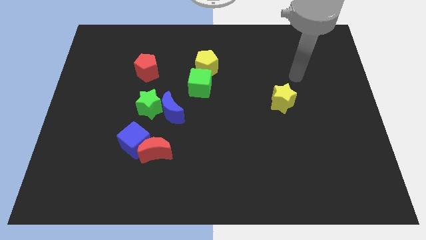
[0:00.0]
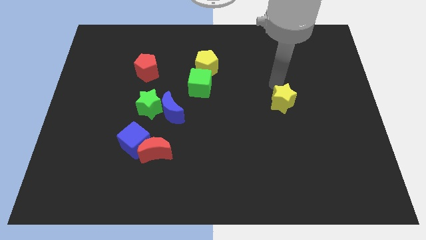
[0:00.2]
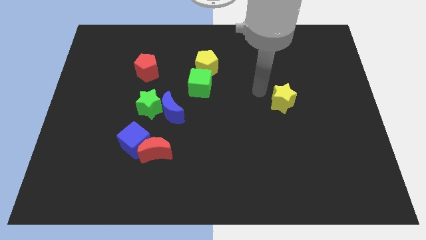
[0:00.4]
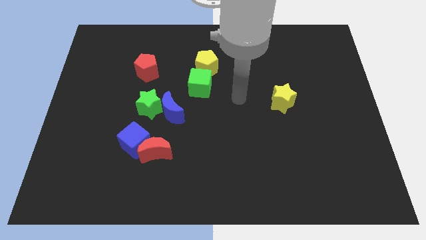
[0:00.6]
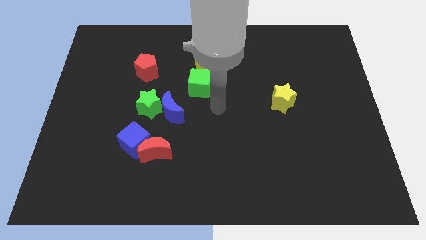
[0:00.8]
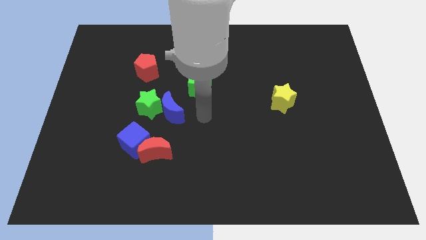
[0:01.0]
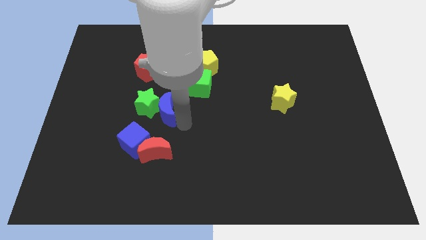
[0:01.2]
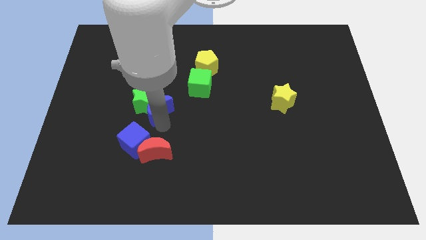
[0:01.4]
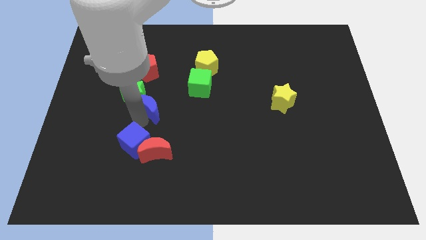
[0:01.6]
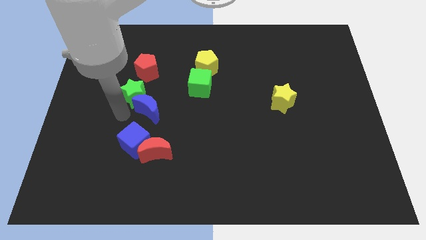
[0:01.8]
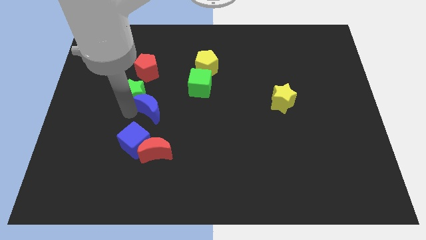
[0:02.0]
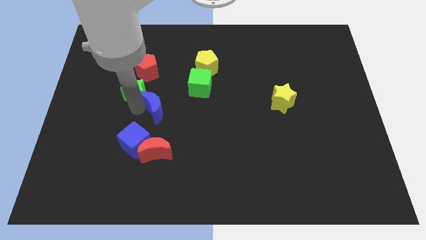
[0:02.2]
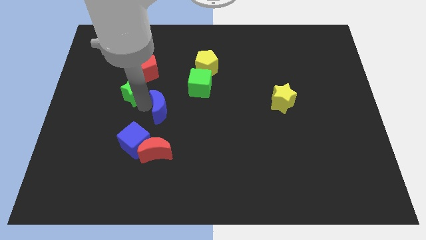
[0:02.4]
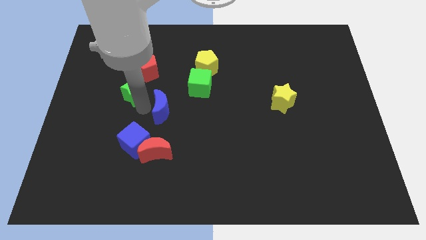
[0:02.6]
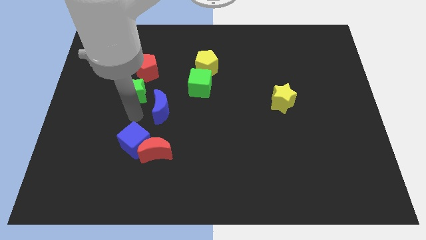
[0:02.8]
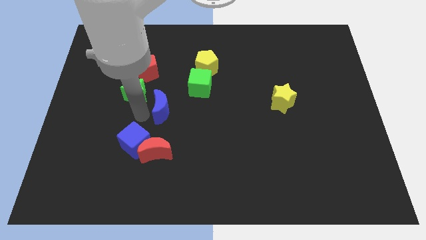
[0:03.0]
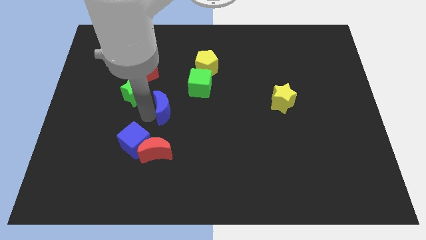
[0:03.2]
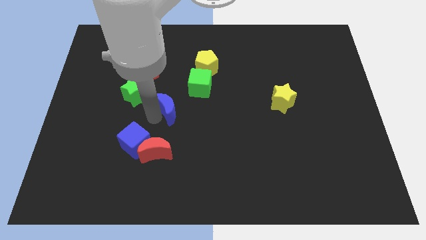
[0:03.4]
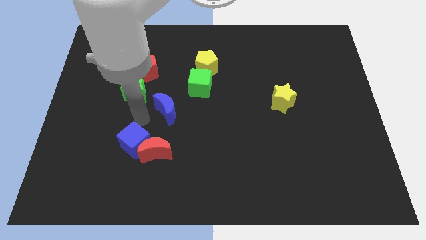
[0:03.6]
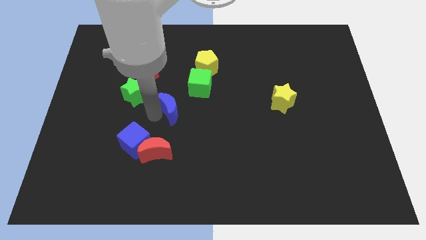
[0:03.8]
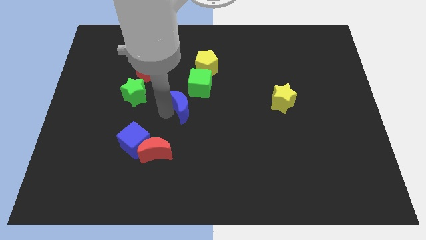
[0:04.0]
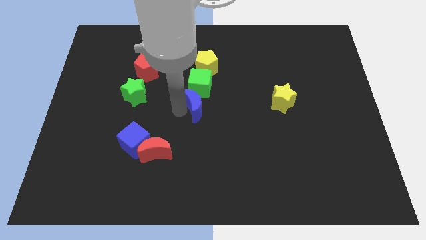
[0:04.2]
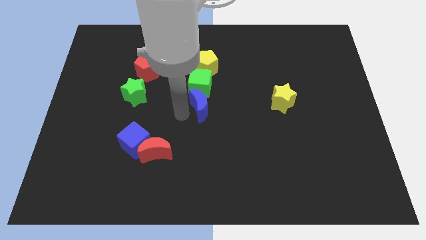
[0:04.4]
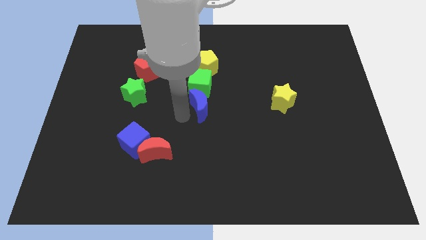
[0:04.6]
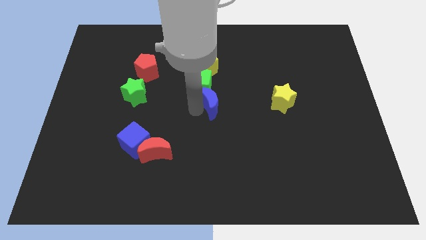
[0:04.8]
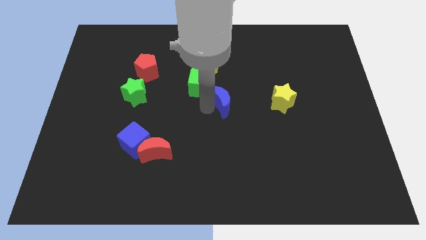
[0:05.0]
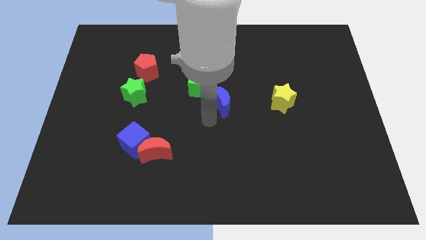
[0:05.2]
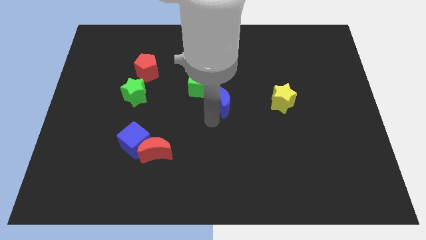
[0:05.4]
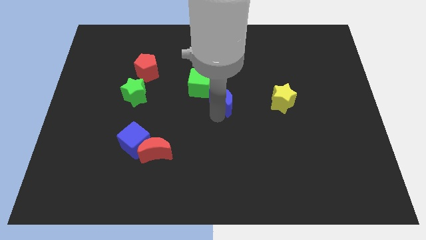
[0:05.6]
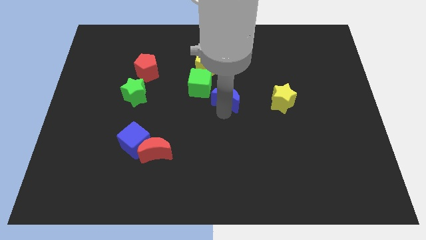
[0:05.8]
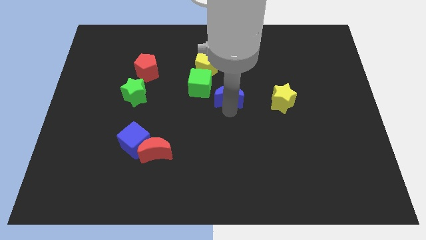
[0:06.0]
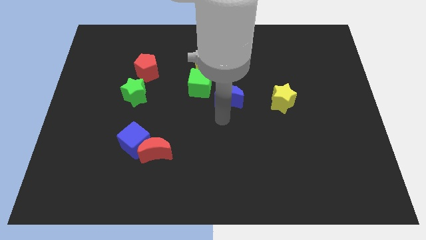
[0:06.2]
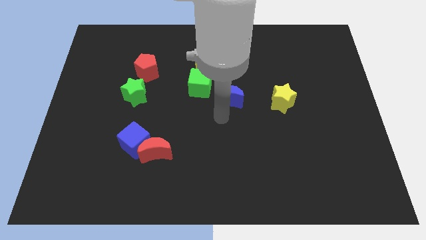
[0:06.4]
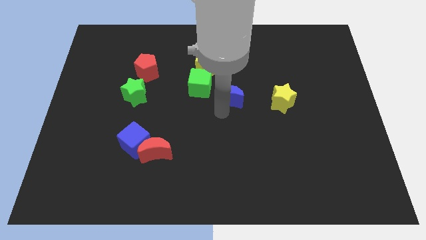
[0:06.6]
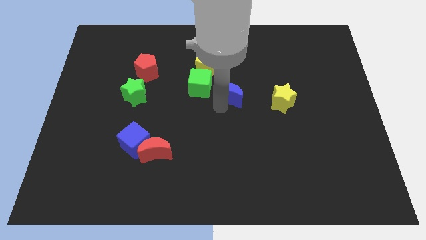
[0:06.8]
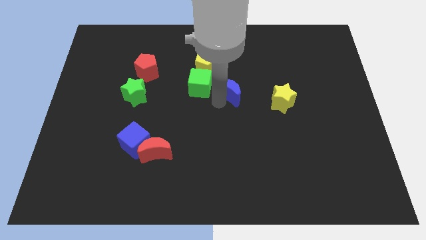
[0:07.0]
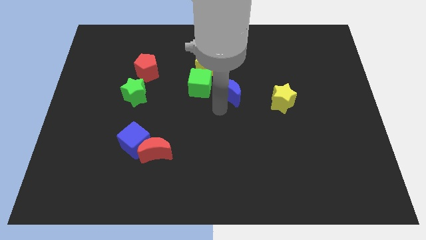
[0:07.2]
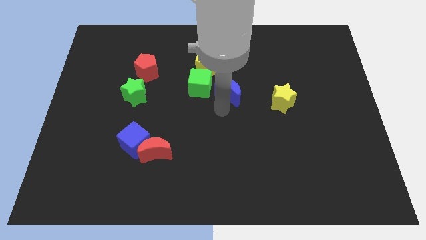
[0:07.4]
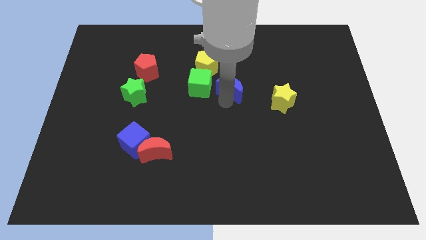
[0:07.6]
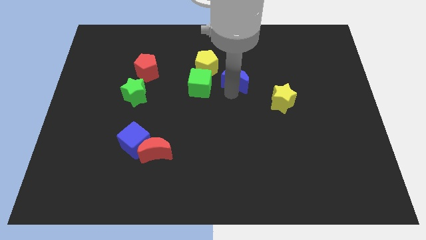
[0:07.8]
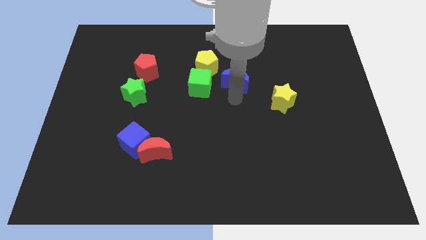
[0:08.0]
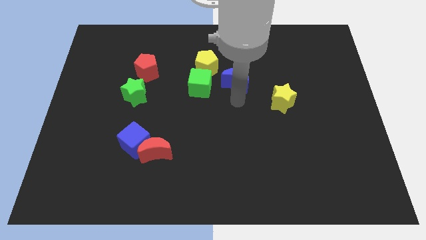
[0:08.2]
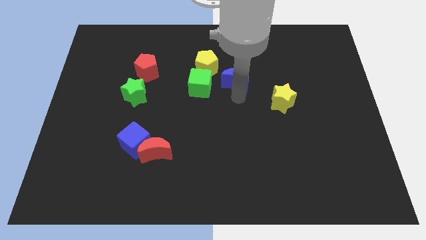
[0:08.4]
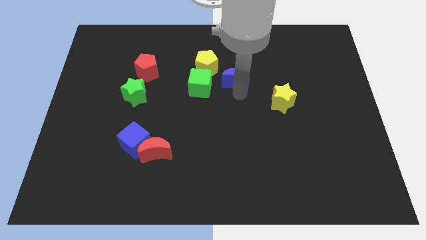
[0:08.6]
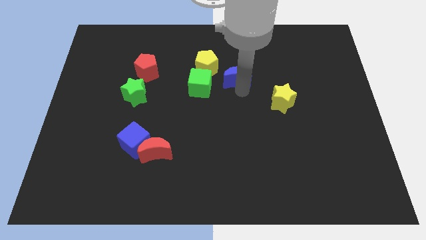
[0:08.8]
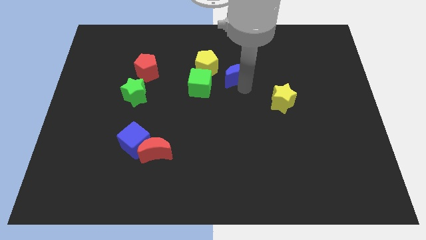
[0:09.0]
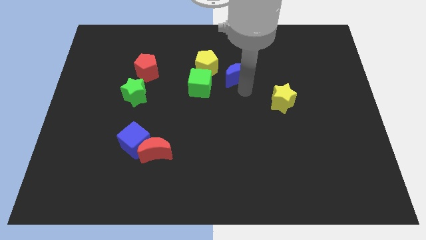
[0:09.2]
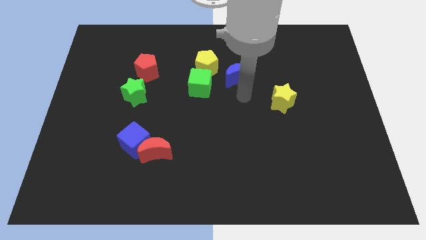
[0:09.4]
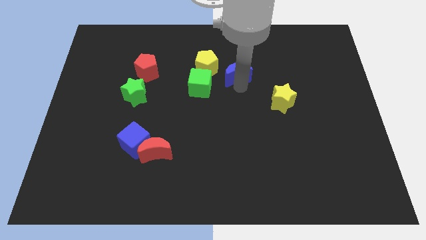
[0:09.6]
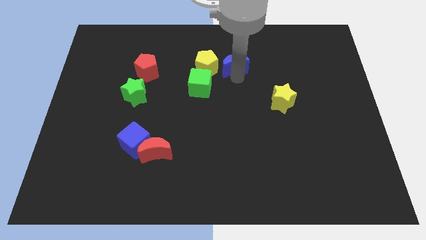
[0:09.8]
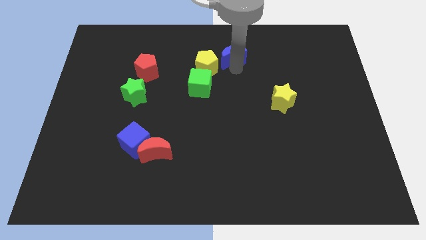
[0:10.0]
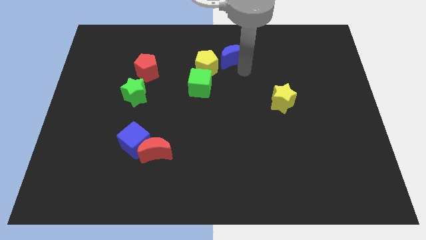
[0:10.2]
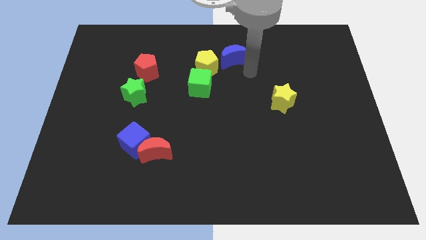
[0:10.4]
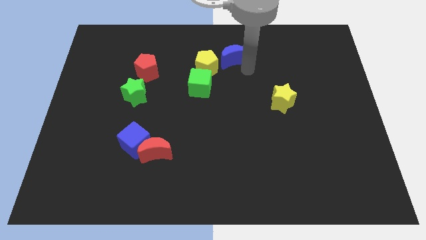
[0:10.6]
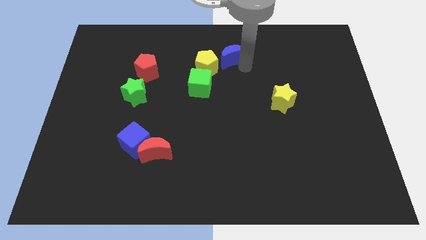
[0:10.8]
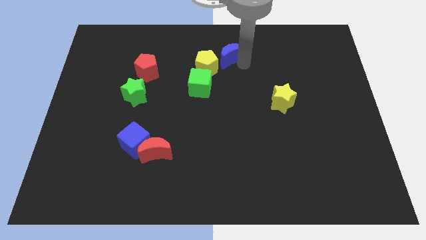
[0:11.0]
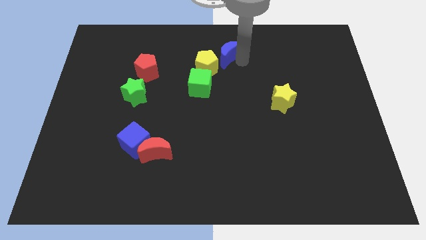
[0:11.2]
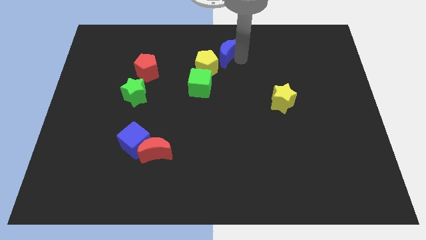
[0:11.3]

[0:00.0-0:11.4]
push the blue moon to the top
